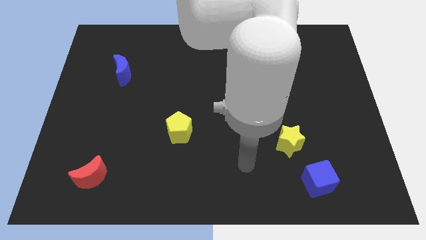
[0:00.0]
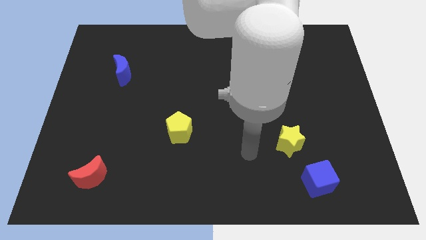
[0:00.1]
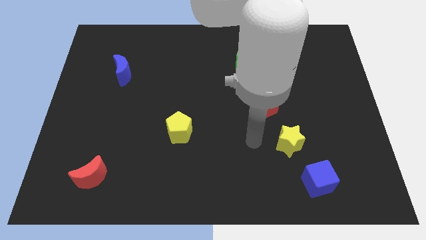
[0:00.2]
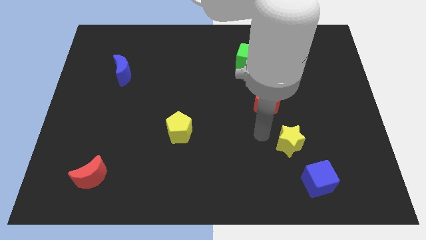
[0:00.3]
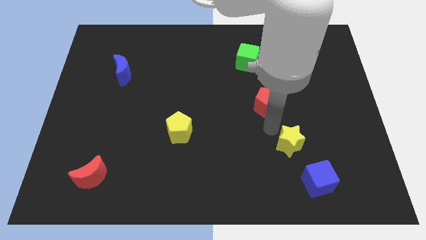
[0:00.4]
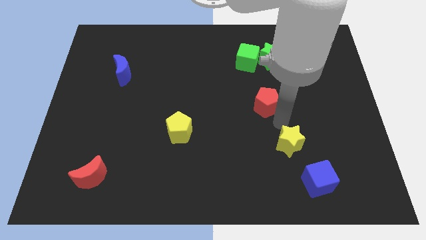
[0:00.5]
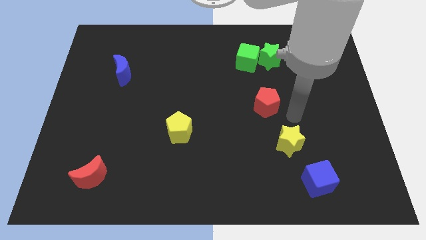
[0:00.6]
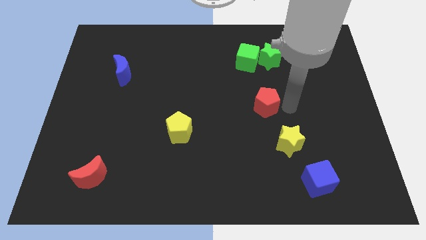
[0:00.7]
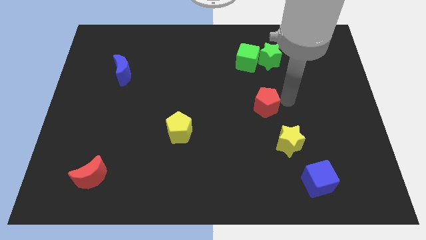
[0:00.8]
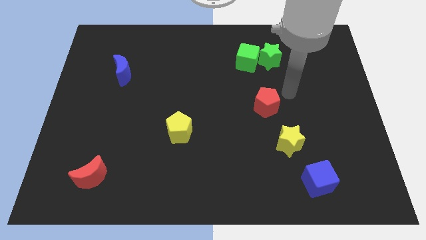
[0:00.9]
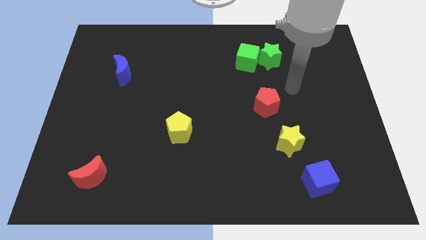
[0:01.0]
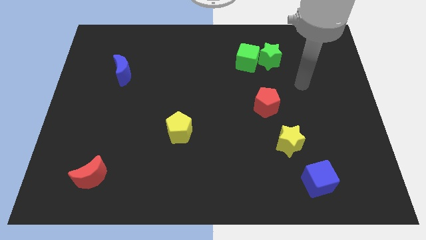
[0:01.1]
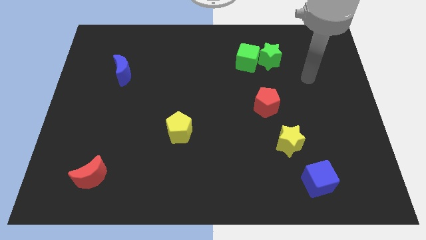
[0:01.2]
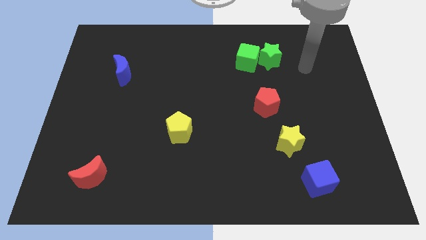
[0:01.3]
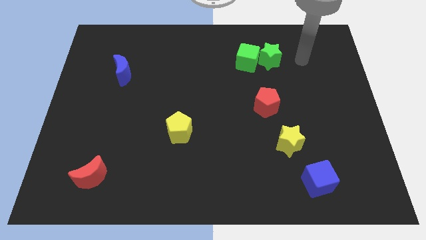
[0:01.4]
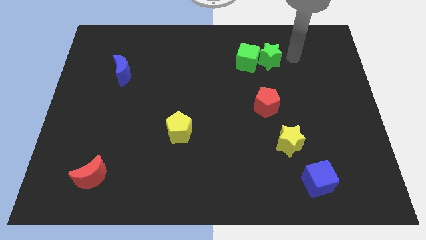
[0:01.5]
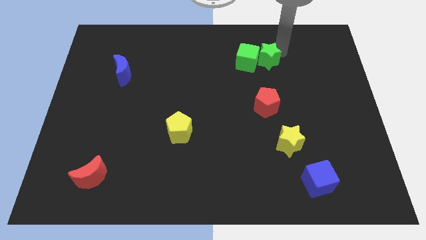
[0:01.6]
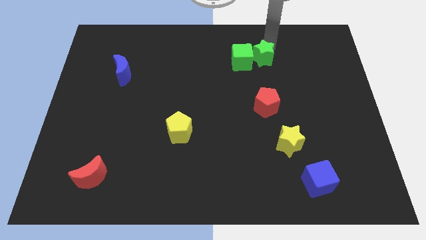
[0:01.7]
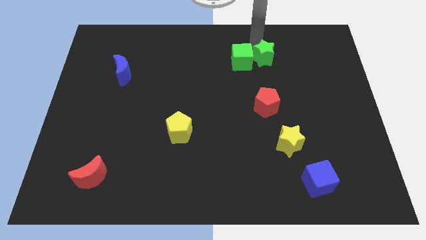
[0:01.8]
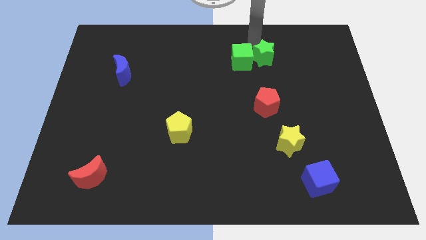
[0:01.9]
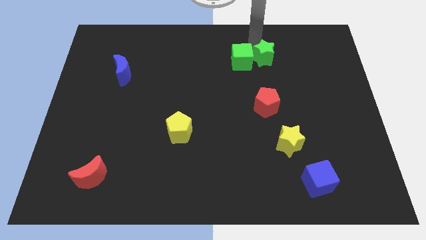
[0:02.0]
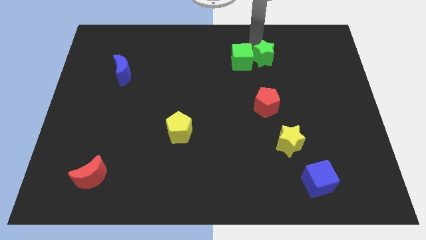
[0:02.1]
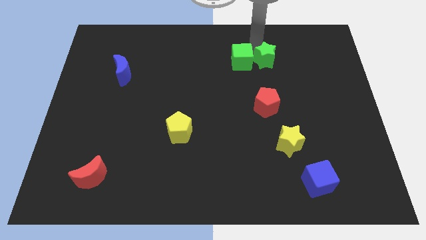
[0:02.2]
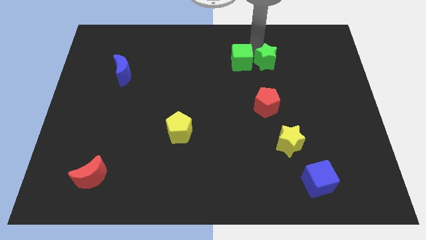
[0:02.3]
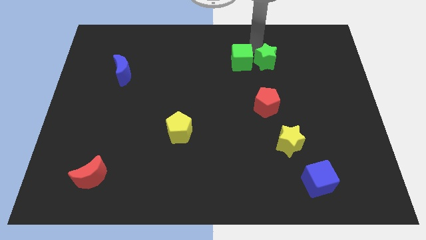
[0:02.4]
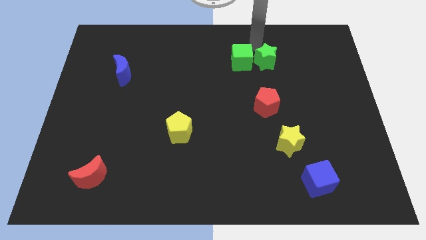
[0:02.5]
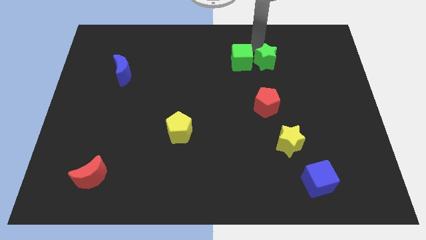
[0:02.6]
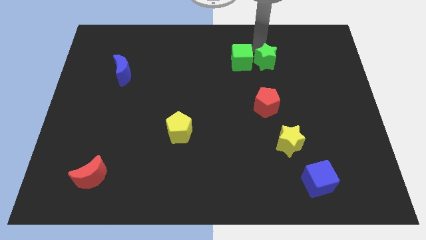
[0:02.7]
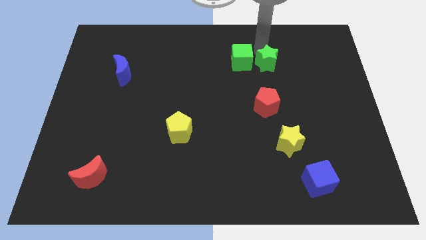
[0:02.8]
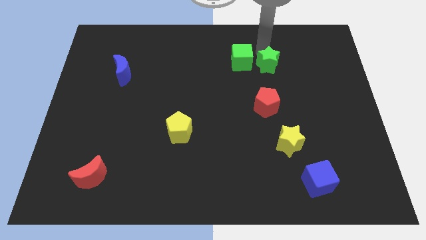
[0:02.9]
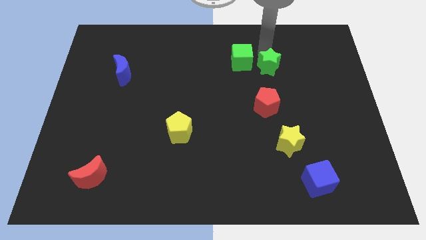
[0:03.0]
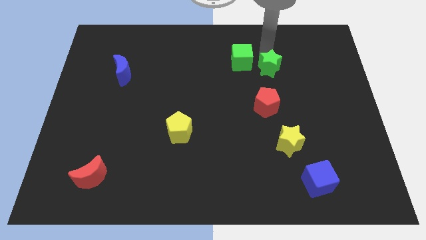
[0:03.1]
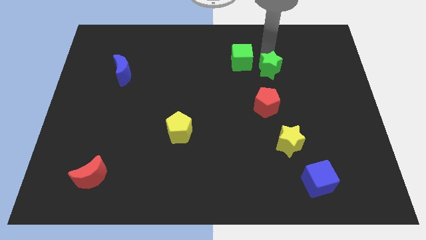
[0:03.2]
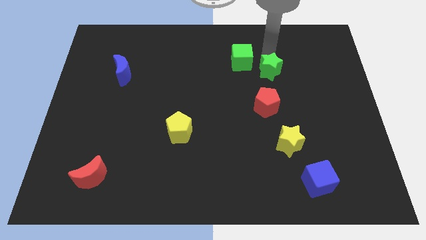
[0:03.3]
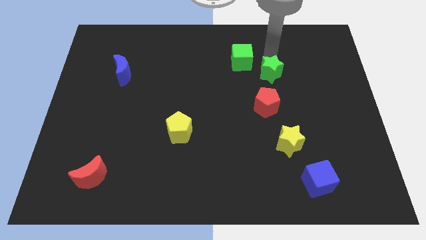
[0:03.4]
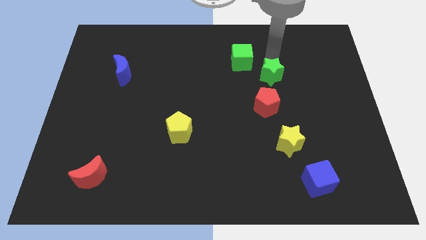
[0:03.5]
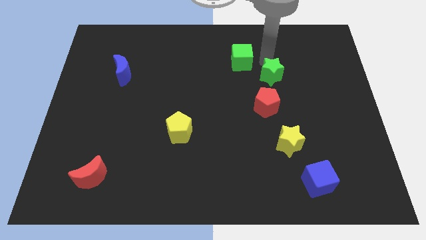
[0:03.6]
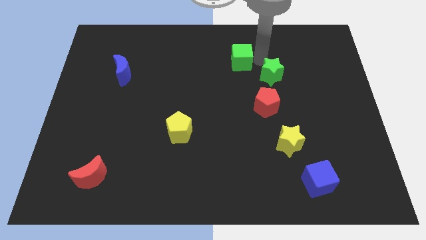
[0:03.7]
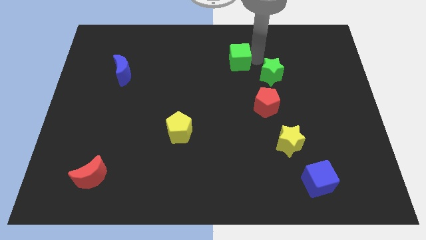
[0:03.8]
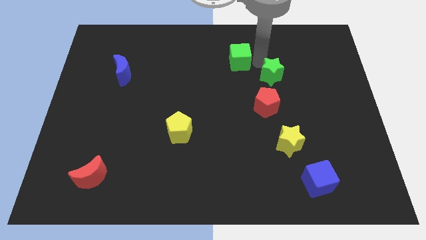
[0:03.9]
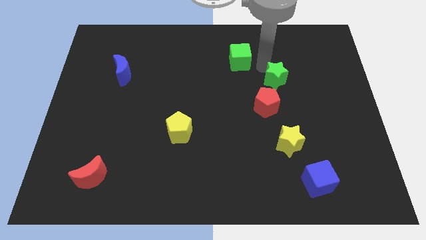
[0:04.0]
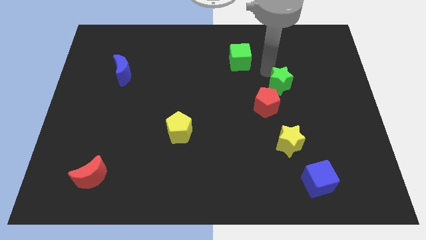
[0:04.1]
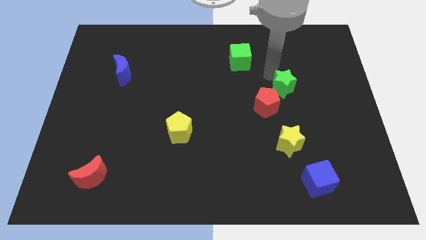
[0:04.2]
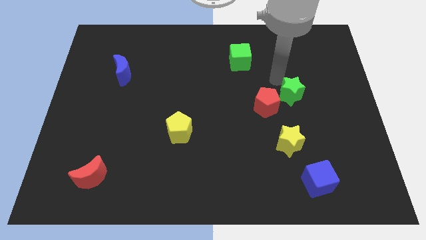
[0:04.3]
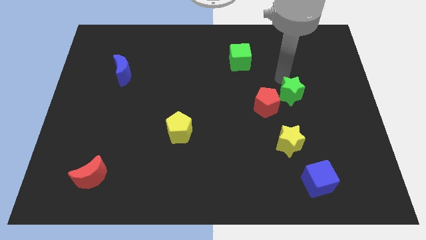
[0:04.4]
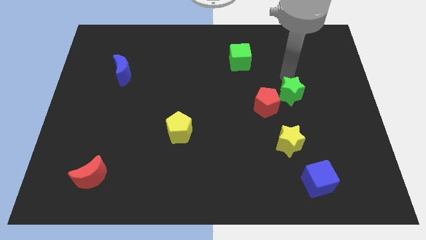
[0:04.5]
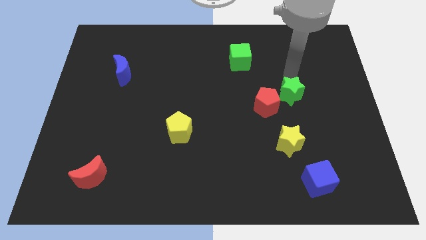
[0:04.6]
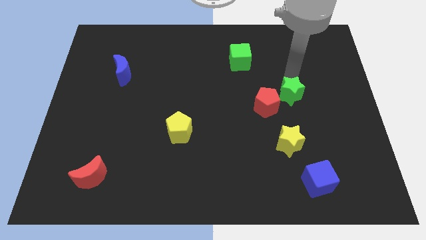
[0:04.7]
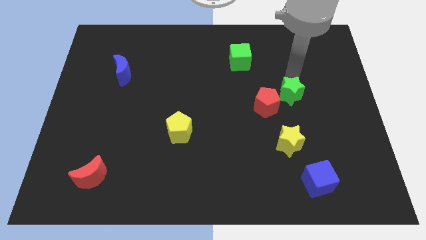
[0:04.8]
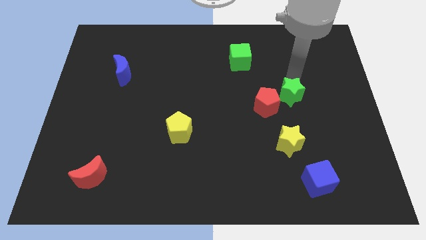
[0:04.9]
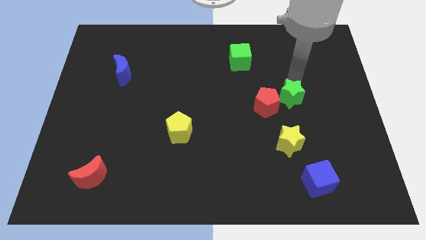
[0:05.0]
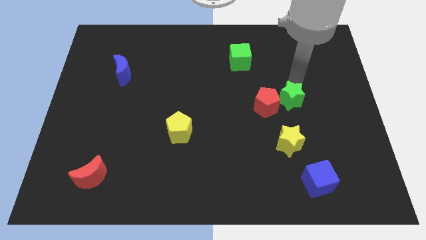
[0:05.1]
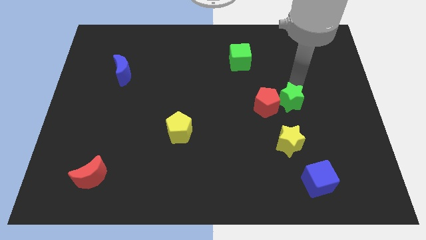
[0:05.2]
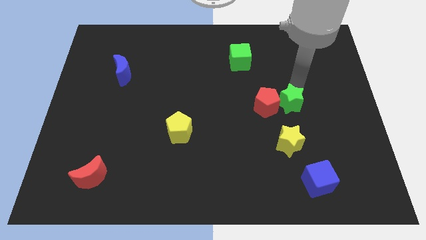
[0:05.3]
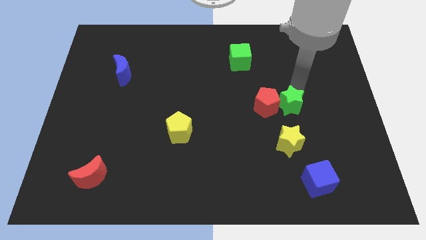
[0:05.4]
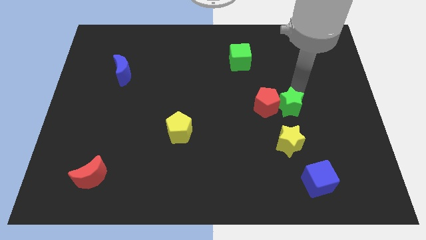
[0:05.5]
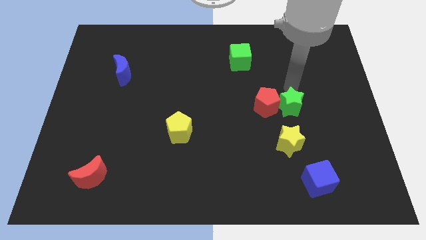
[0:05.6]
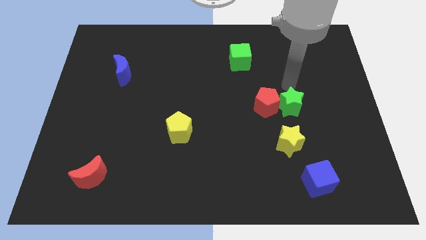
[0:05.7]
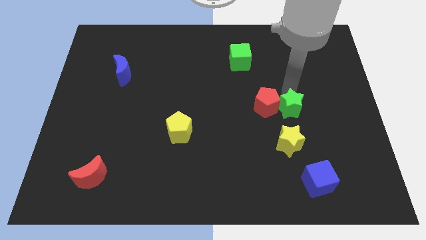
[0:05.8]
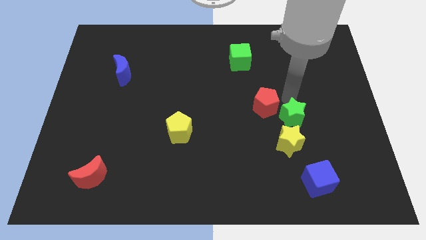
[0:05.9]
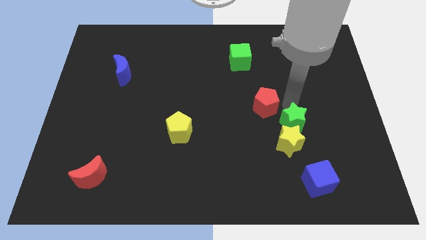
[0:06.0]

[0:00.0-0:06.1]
slide the green star towards the yellow star

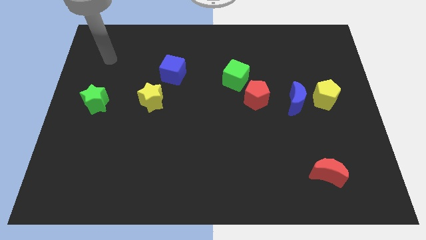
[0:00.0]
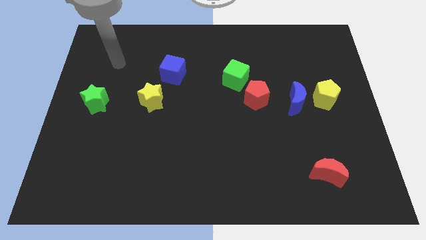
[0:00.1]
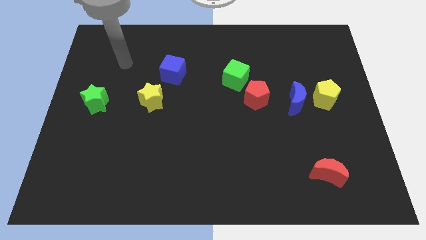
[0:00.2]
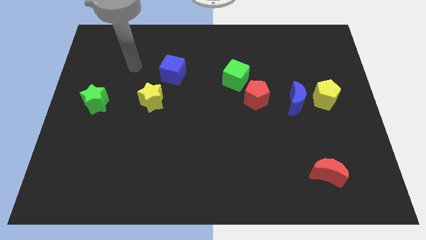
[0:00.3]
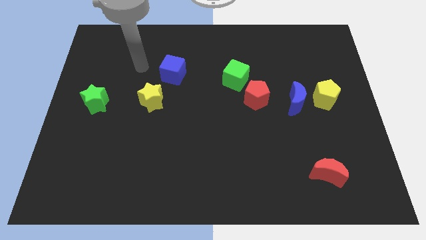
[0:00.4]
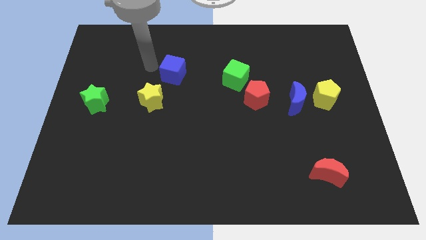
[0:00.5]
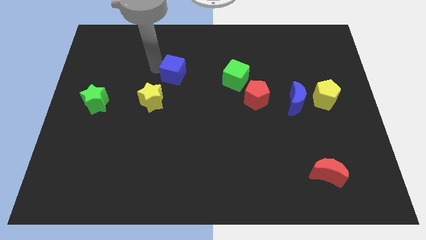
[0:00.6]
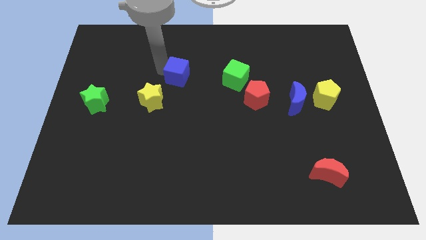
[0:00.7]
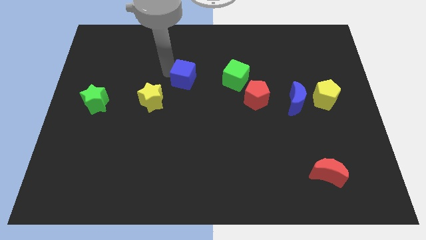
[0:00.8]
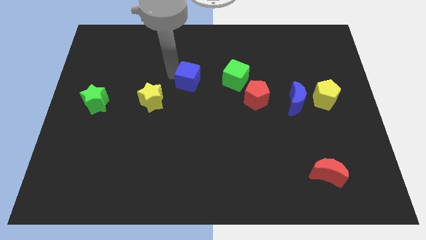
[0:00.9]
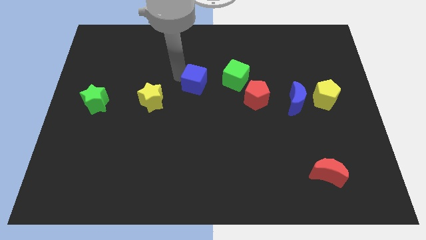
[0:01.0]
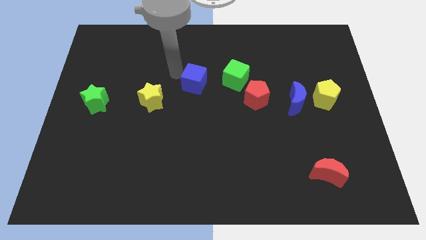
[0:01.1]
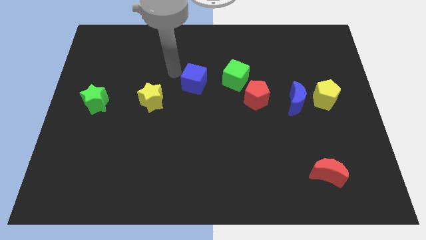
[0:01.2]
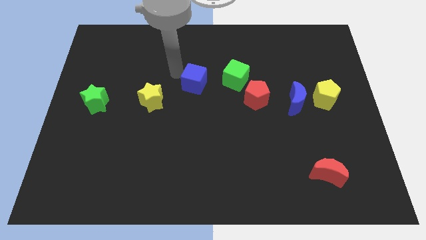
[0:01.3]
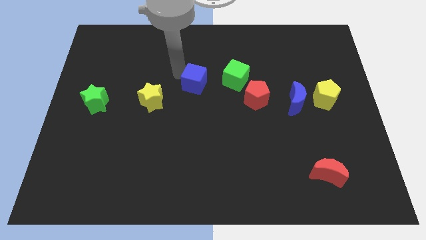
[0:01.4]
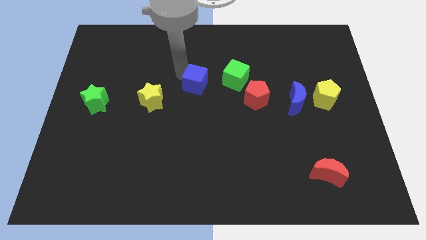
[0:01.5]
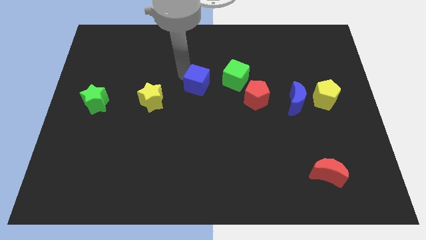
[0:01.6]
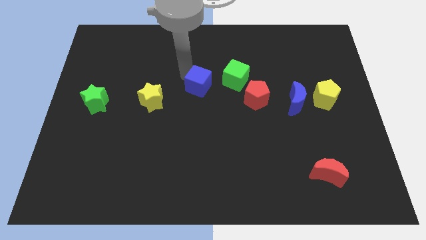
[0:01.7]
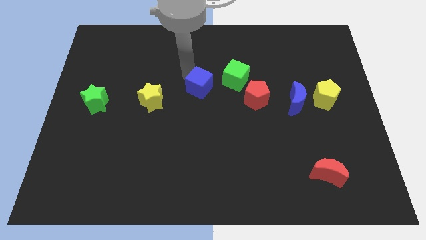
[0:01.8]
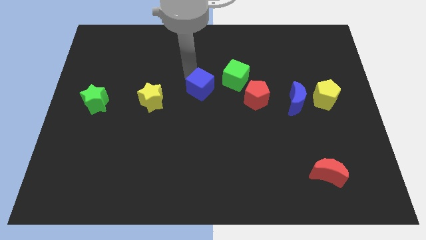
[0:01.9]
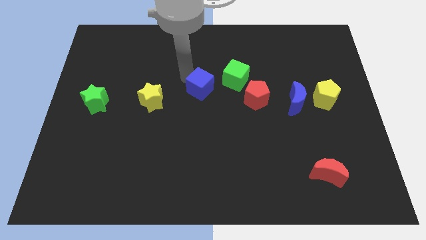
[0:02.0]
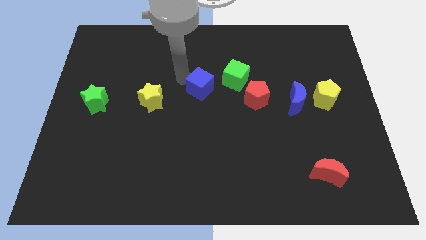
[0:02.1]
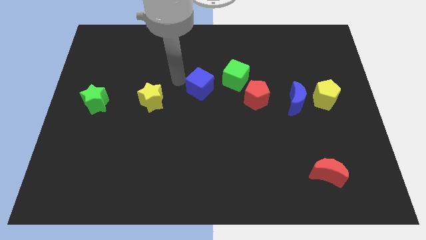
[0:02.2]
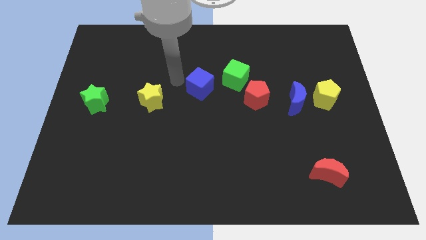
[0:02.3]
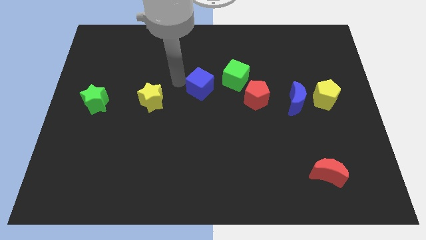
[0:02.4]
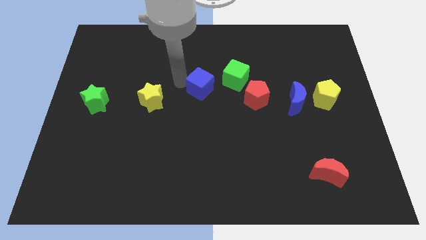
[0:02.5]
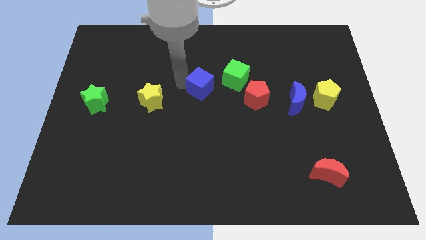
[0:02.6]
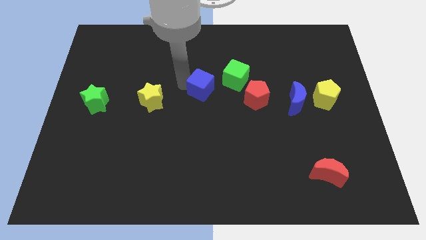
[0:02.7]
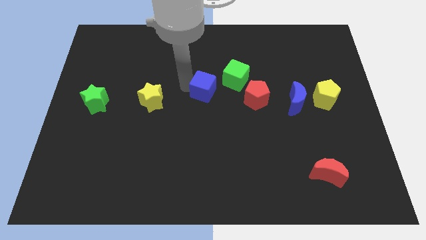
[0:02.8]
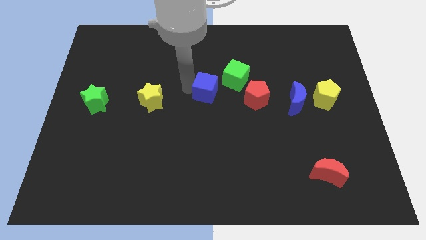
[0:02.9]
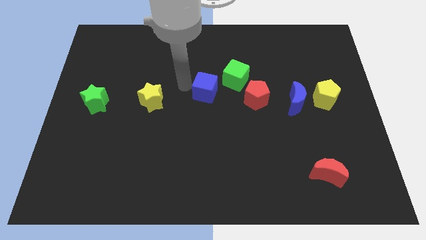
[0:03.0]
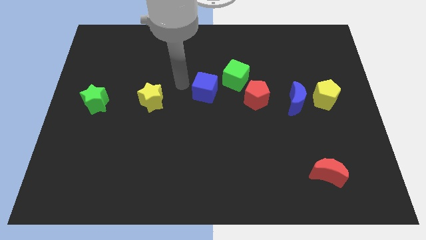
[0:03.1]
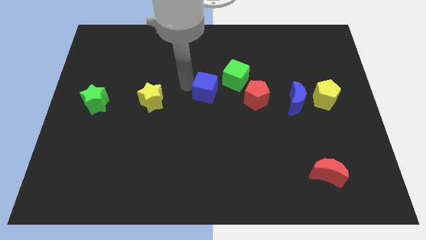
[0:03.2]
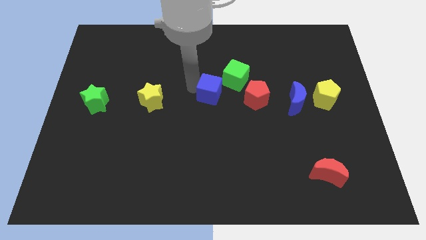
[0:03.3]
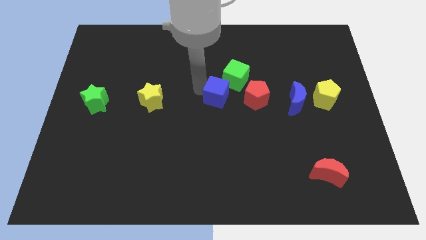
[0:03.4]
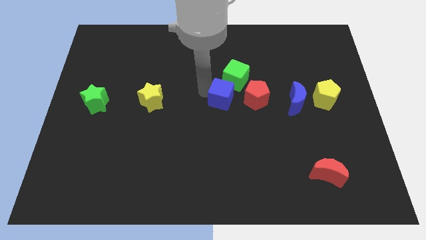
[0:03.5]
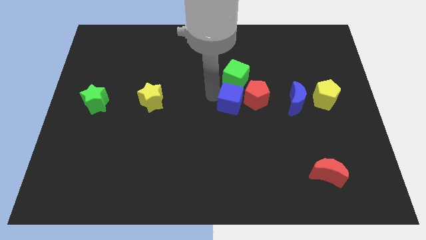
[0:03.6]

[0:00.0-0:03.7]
slide the blue cube close to the red pentagon
